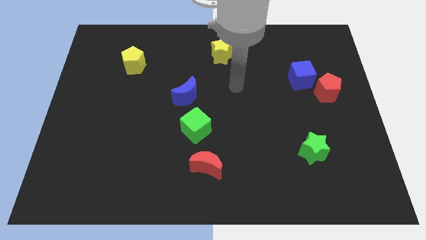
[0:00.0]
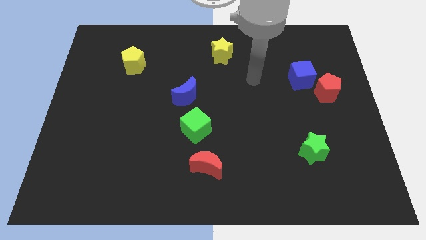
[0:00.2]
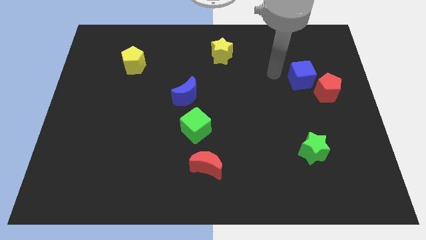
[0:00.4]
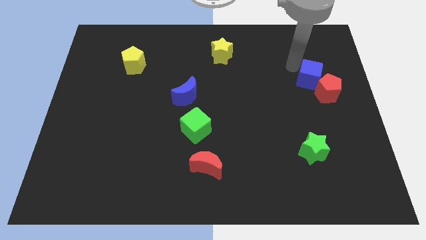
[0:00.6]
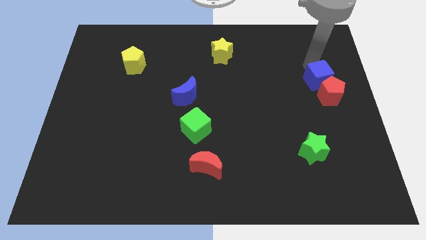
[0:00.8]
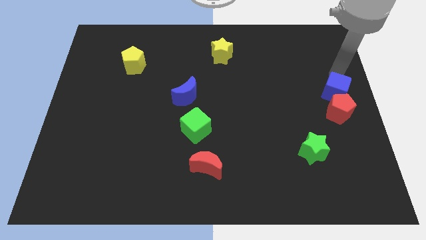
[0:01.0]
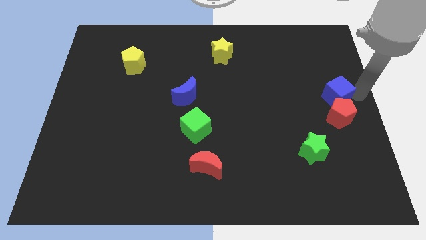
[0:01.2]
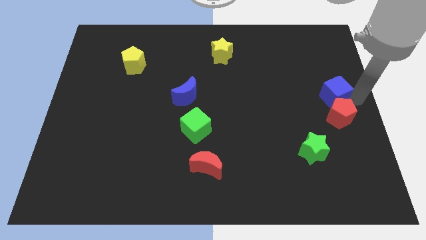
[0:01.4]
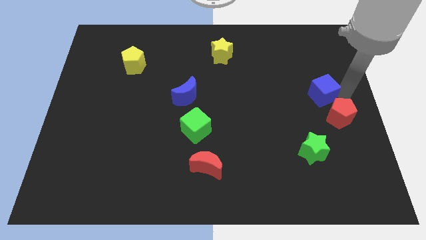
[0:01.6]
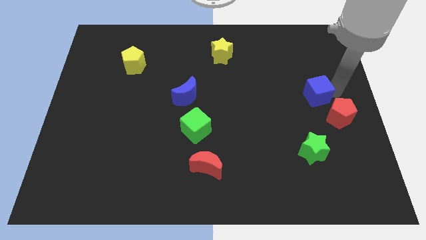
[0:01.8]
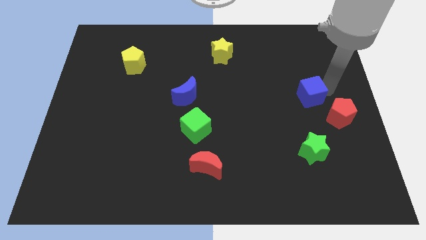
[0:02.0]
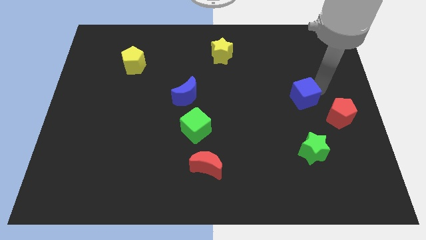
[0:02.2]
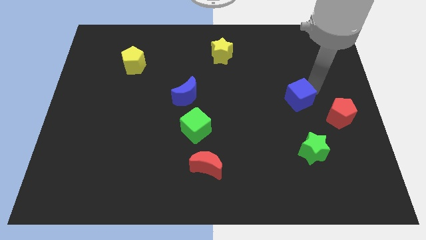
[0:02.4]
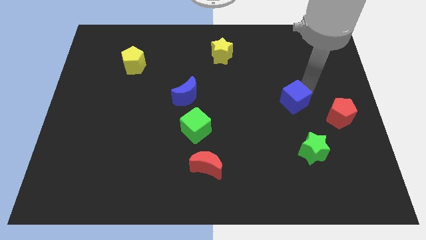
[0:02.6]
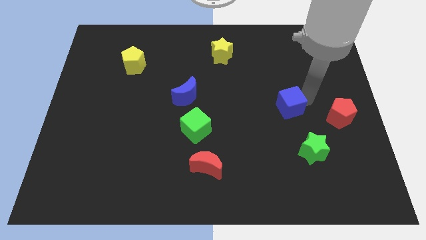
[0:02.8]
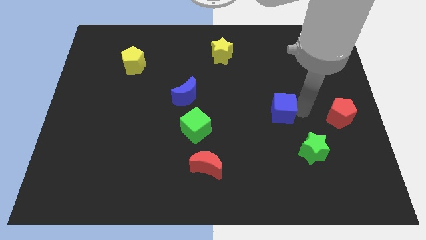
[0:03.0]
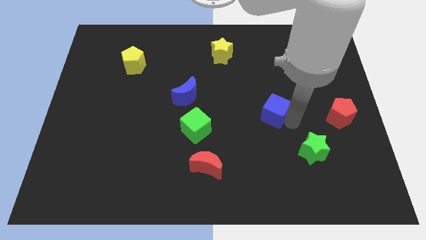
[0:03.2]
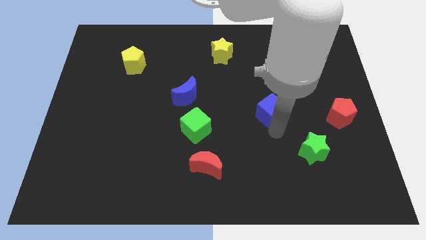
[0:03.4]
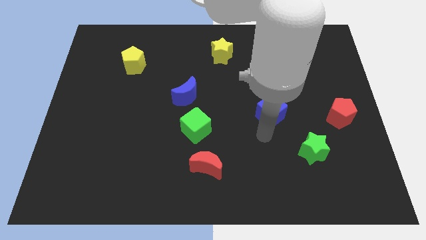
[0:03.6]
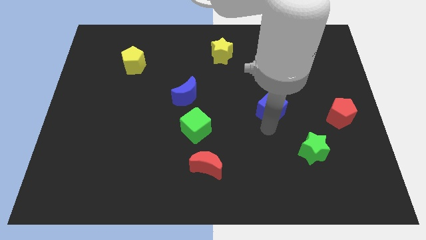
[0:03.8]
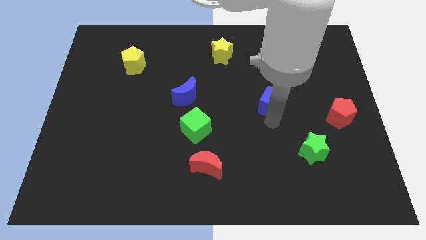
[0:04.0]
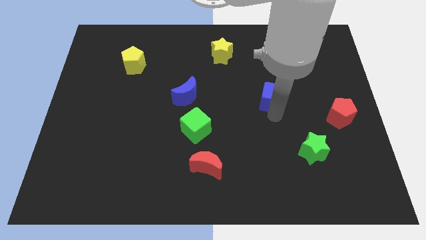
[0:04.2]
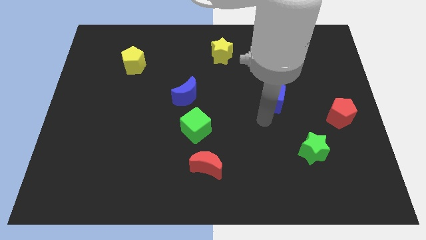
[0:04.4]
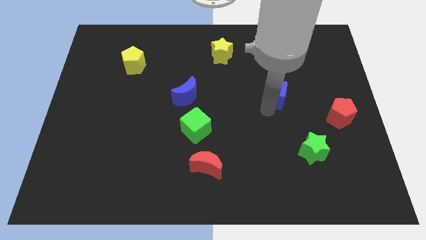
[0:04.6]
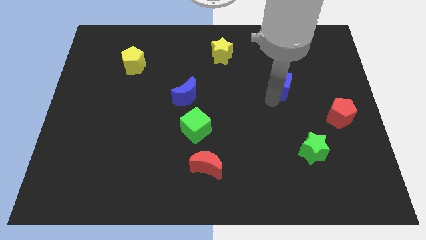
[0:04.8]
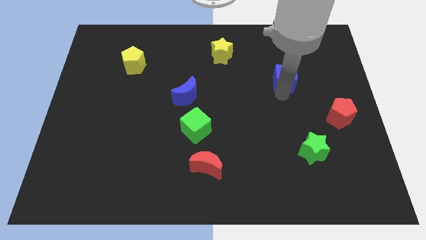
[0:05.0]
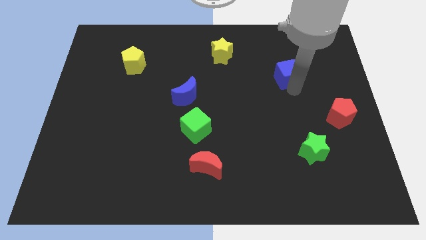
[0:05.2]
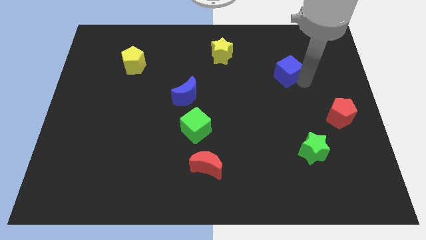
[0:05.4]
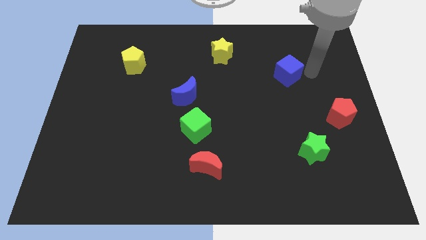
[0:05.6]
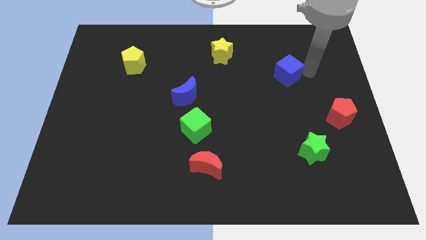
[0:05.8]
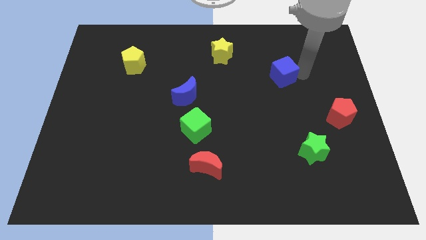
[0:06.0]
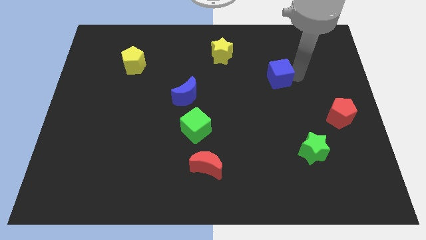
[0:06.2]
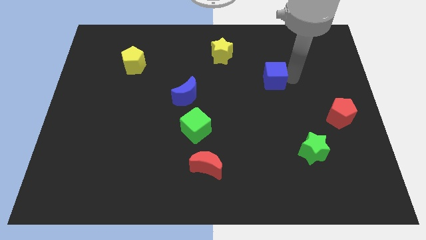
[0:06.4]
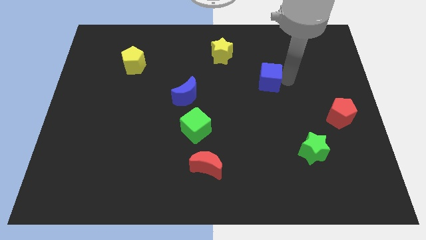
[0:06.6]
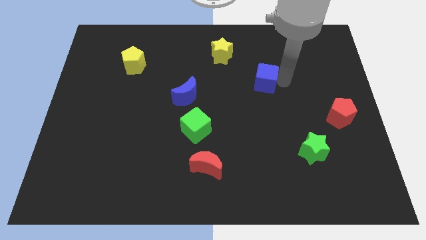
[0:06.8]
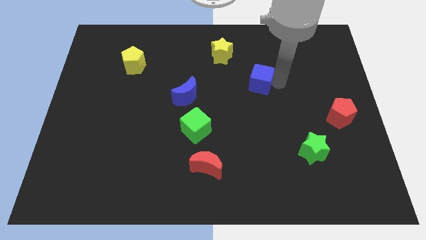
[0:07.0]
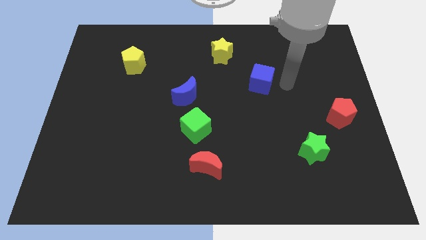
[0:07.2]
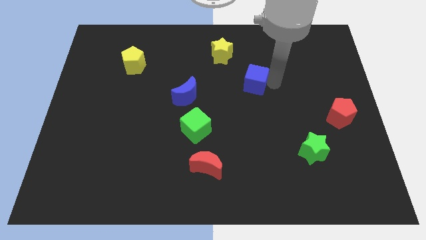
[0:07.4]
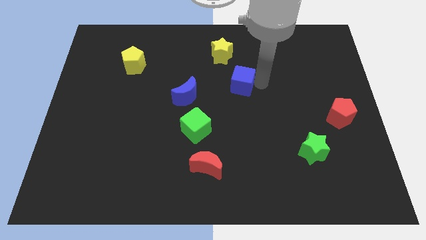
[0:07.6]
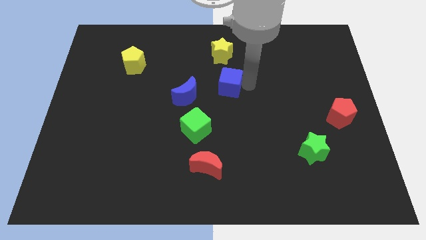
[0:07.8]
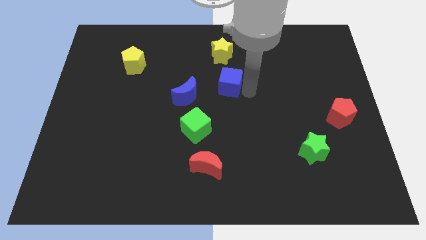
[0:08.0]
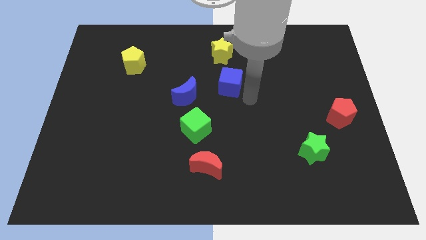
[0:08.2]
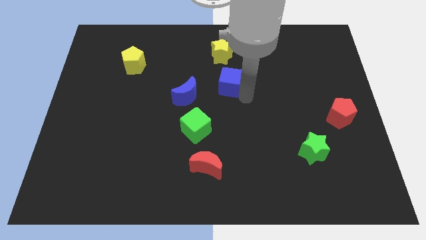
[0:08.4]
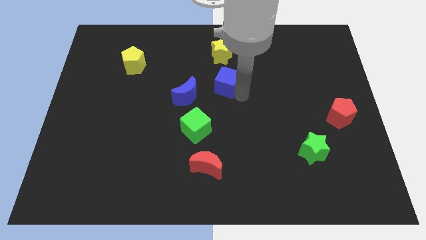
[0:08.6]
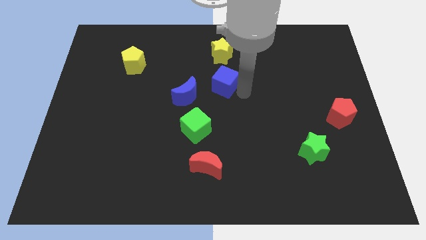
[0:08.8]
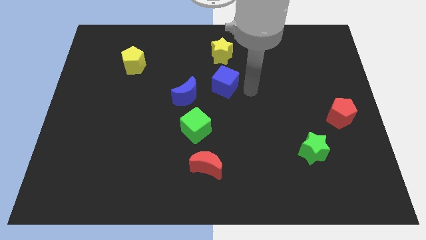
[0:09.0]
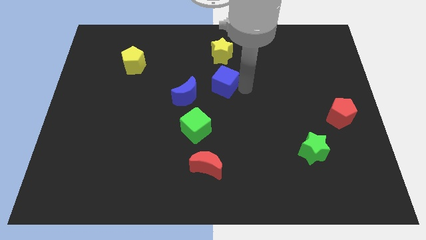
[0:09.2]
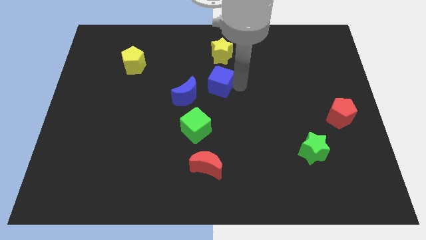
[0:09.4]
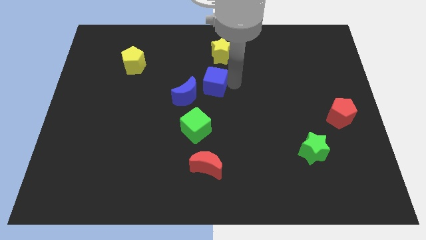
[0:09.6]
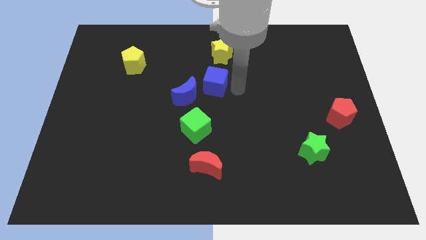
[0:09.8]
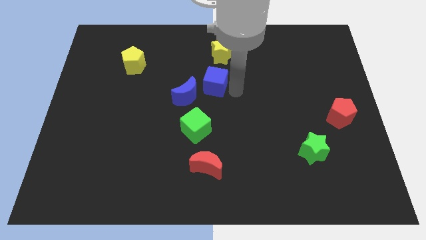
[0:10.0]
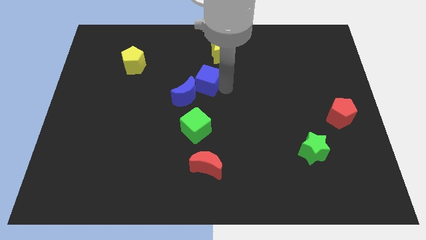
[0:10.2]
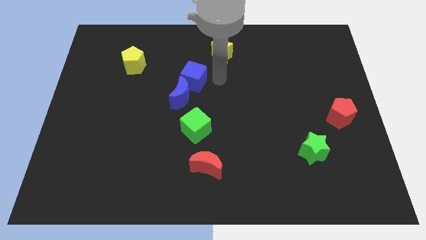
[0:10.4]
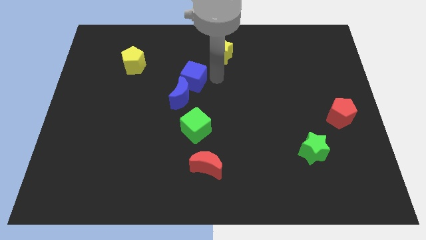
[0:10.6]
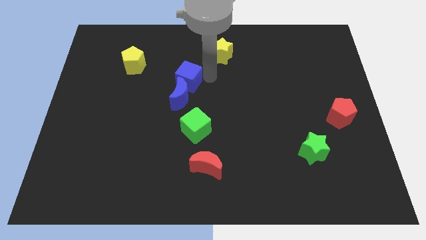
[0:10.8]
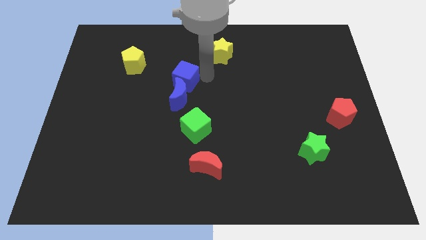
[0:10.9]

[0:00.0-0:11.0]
put the blue cube diagonally up and to the left of the blue moon

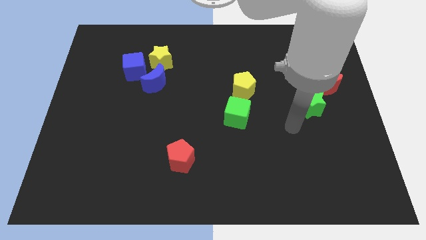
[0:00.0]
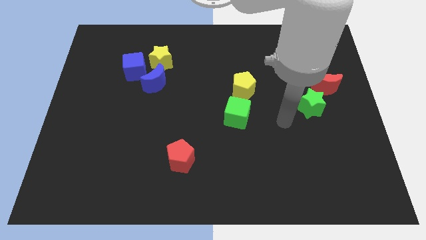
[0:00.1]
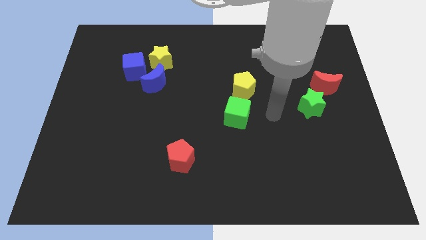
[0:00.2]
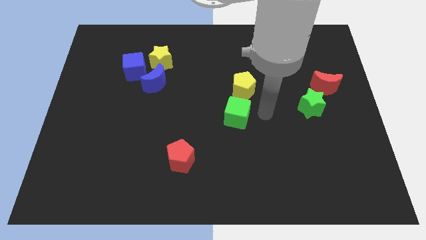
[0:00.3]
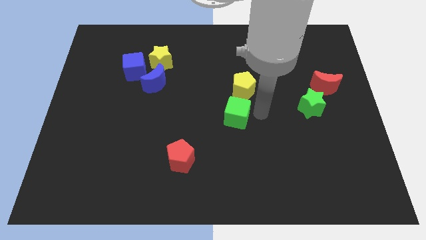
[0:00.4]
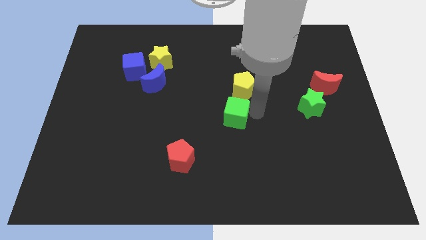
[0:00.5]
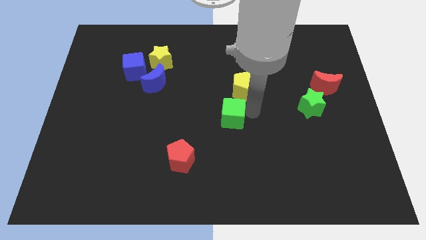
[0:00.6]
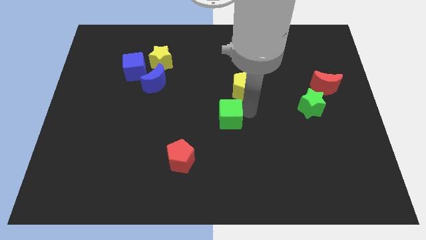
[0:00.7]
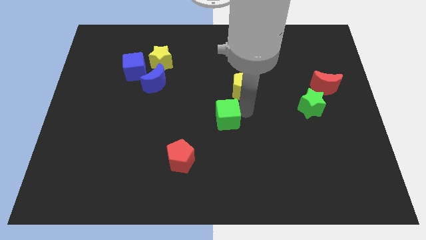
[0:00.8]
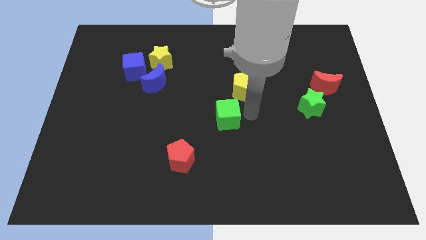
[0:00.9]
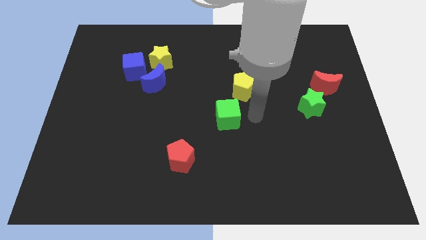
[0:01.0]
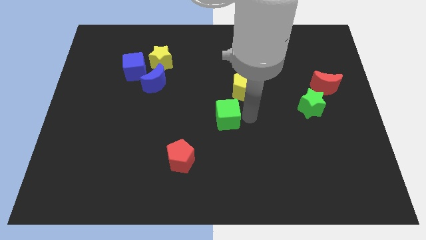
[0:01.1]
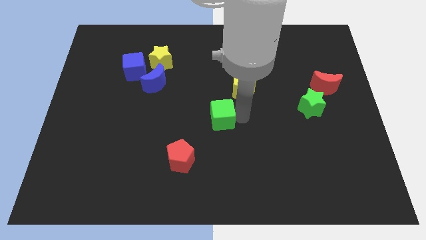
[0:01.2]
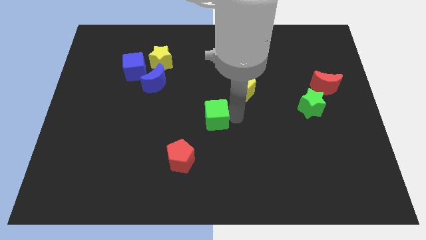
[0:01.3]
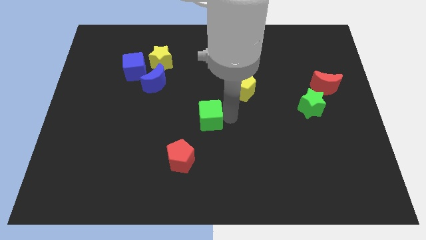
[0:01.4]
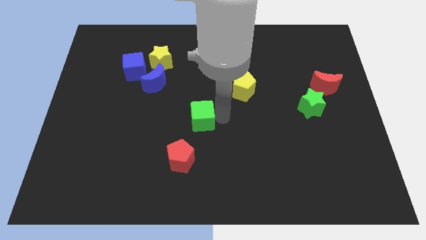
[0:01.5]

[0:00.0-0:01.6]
push the green cube to the top side of the red pentagon
